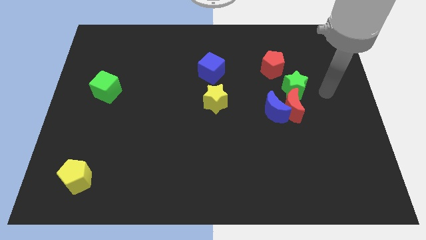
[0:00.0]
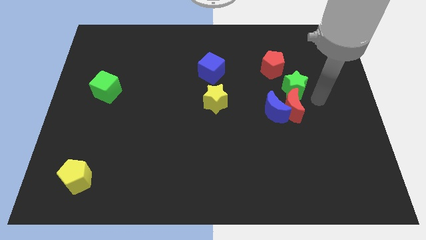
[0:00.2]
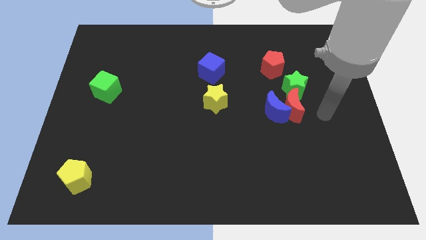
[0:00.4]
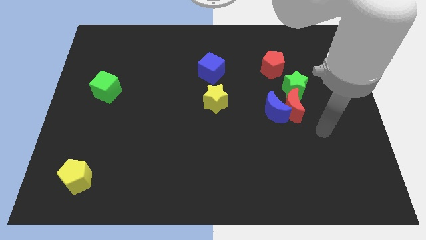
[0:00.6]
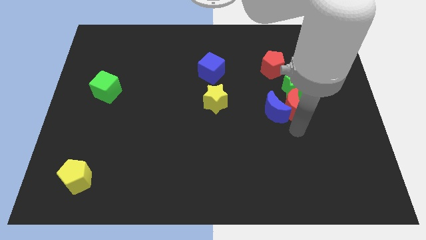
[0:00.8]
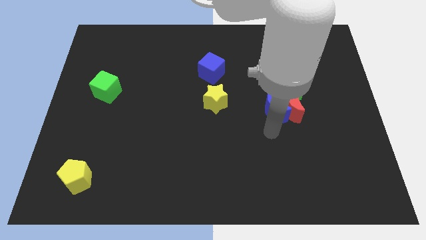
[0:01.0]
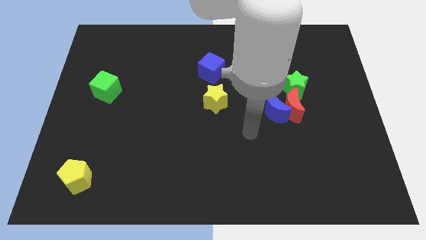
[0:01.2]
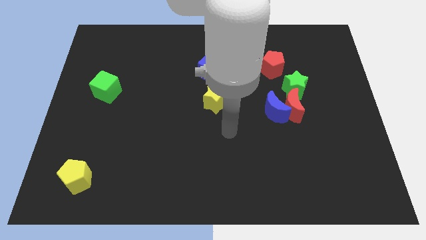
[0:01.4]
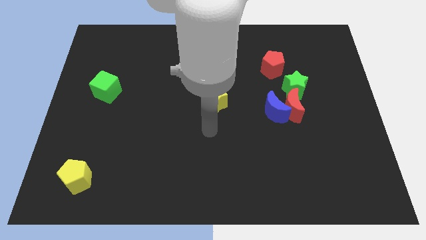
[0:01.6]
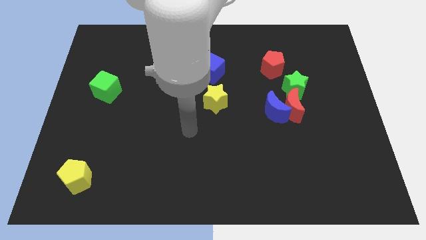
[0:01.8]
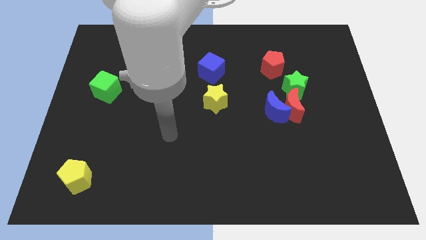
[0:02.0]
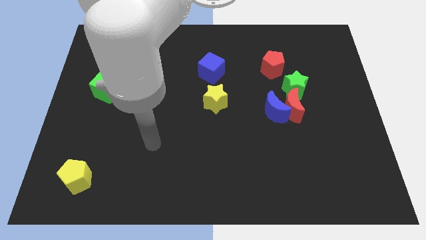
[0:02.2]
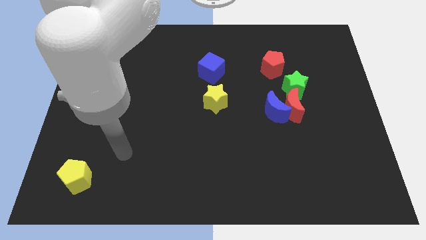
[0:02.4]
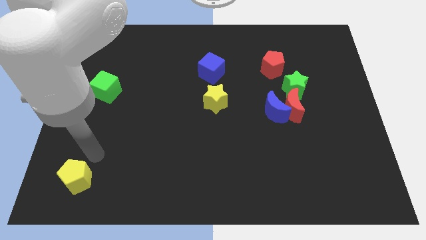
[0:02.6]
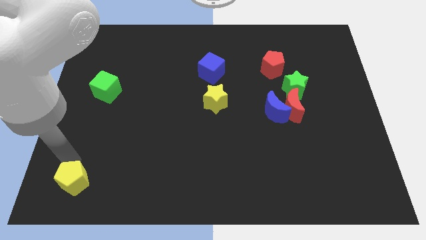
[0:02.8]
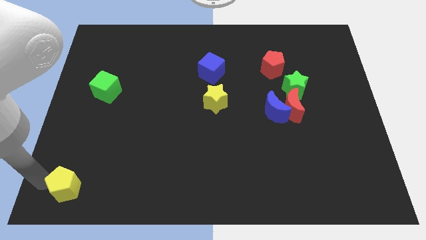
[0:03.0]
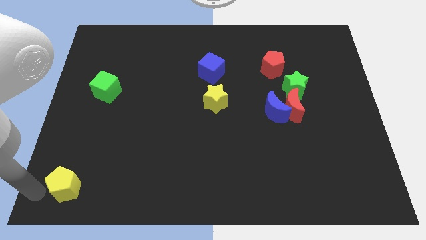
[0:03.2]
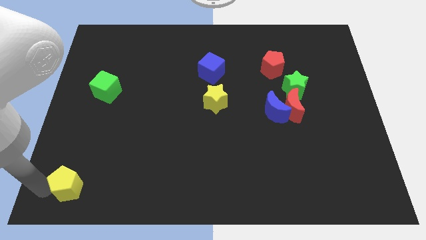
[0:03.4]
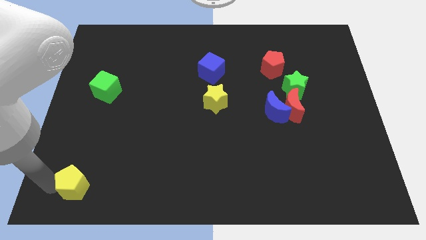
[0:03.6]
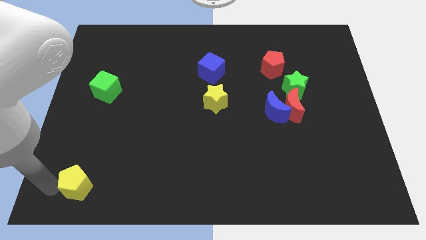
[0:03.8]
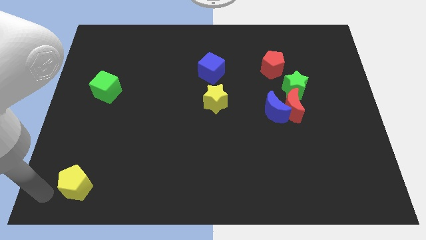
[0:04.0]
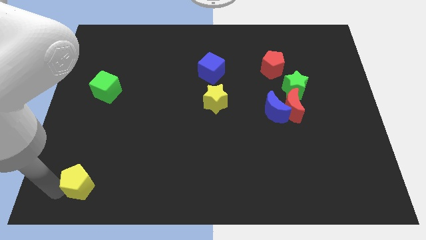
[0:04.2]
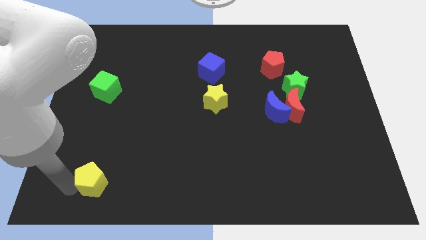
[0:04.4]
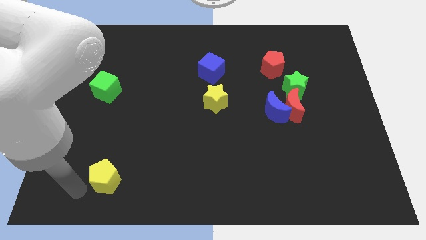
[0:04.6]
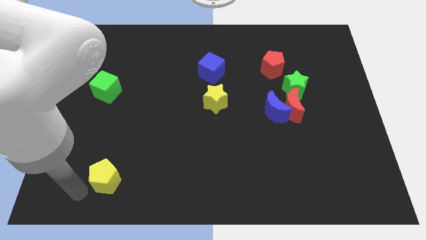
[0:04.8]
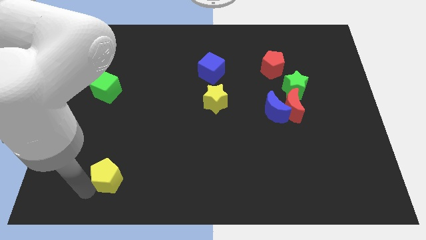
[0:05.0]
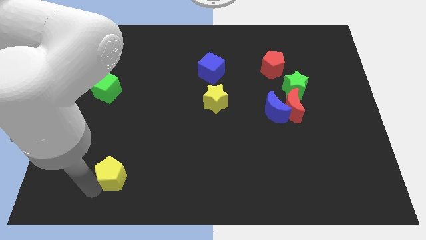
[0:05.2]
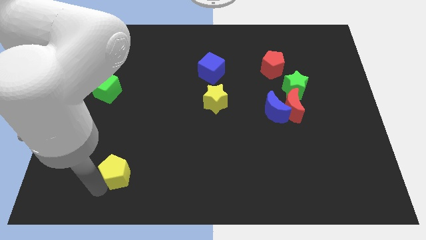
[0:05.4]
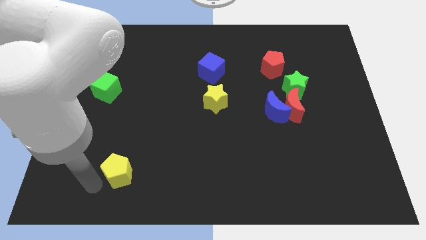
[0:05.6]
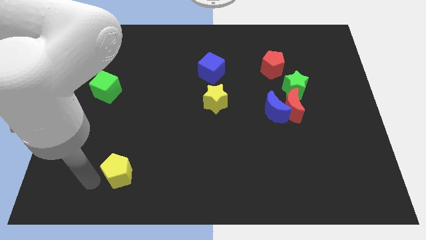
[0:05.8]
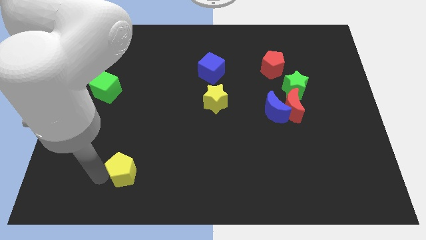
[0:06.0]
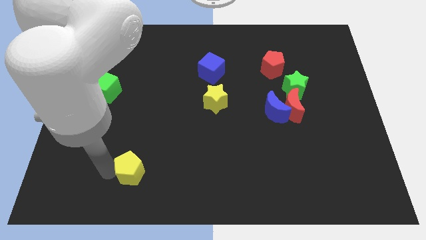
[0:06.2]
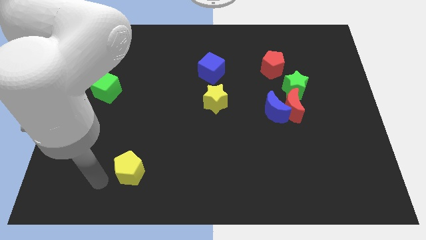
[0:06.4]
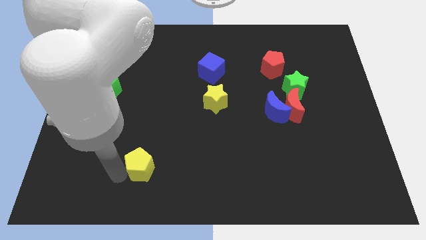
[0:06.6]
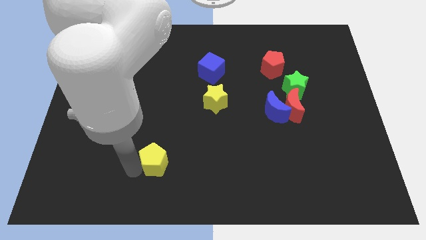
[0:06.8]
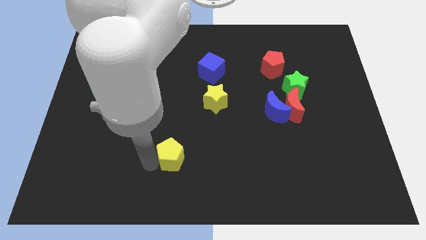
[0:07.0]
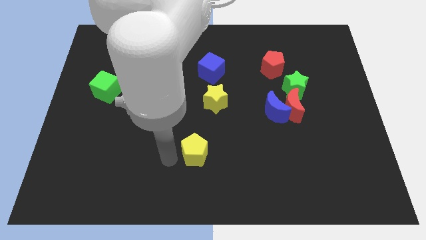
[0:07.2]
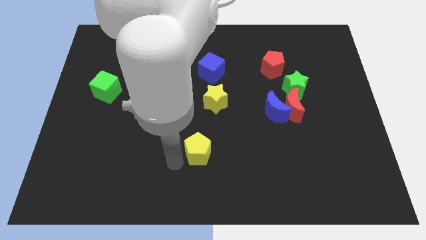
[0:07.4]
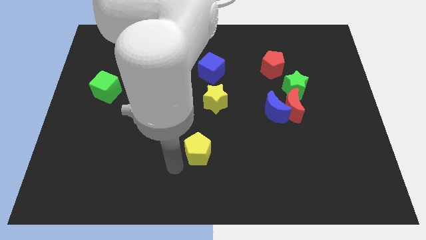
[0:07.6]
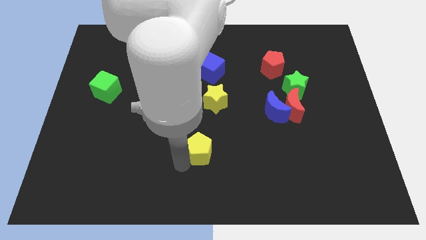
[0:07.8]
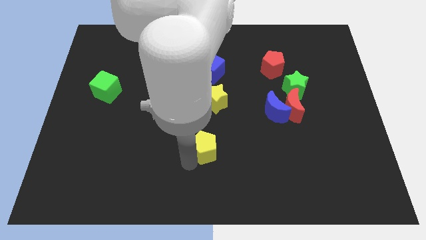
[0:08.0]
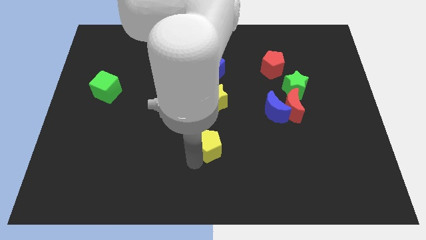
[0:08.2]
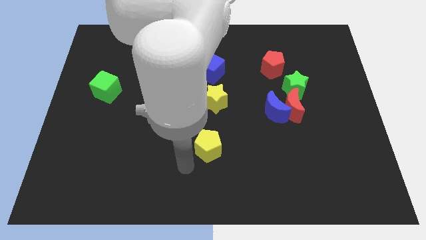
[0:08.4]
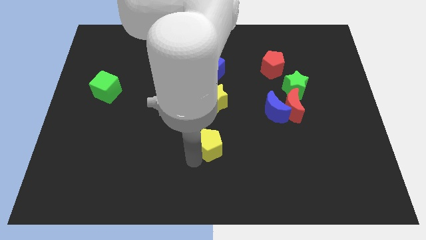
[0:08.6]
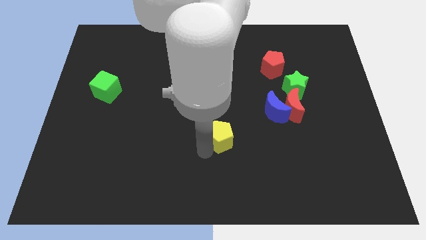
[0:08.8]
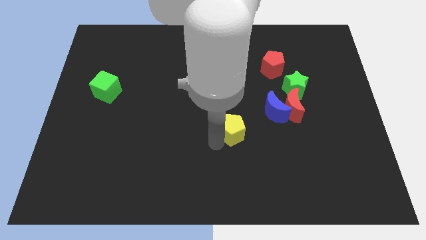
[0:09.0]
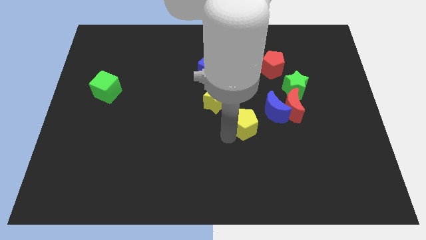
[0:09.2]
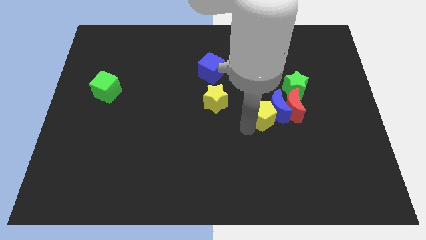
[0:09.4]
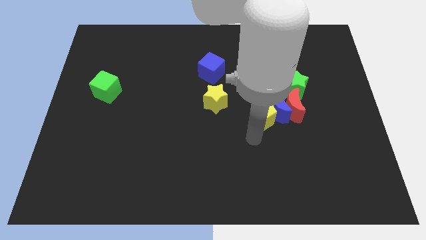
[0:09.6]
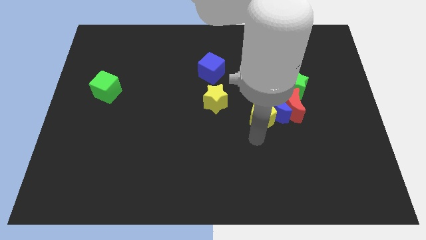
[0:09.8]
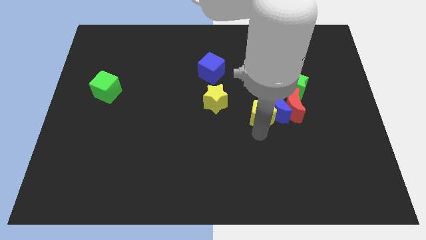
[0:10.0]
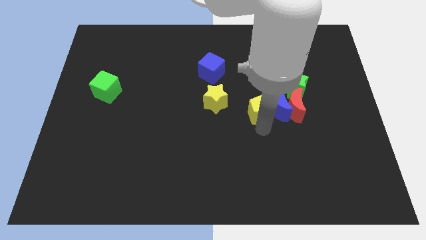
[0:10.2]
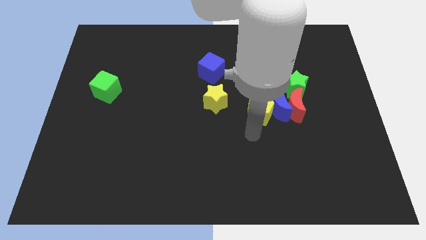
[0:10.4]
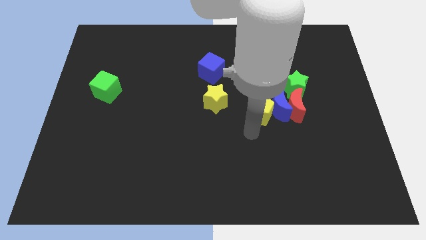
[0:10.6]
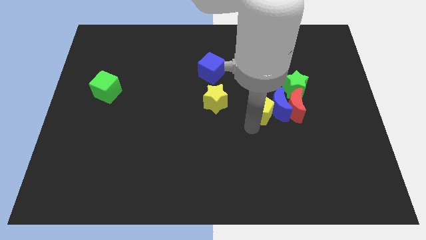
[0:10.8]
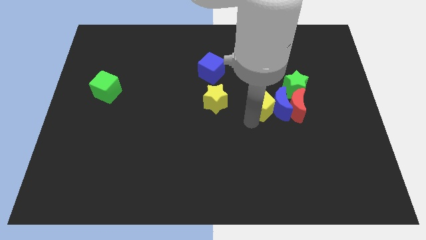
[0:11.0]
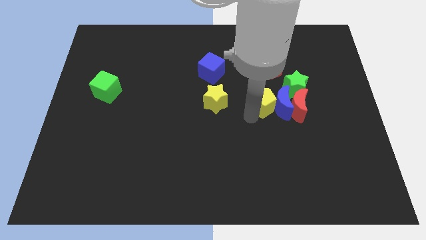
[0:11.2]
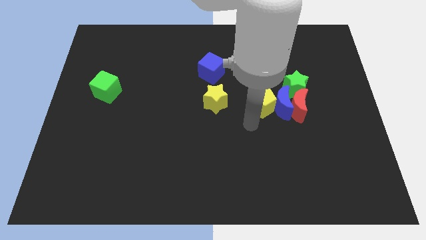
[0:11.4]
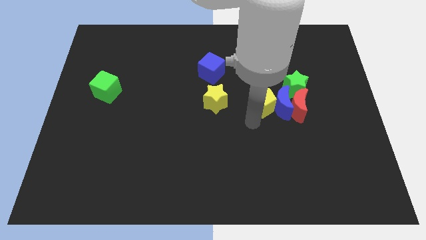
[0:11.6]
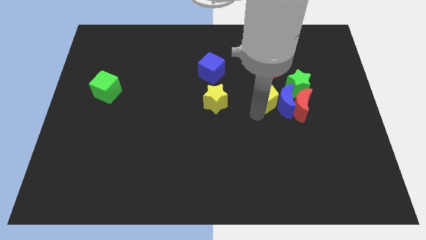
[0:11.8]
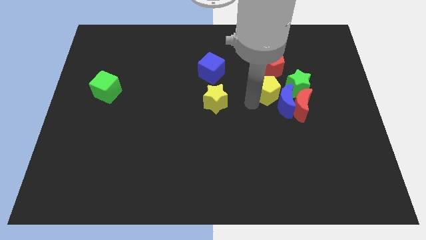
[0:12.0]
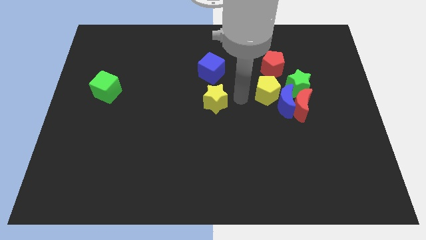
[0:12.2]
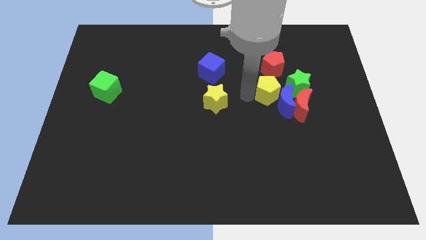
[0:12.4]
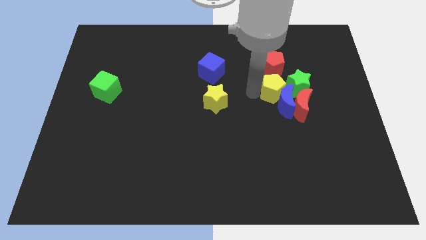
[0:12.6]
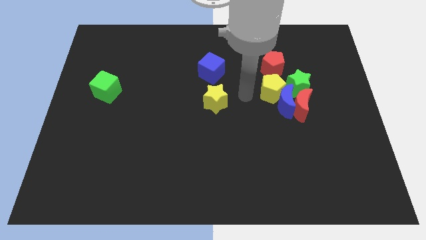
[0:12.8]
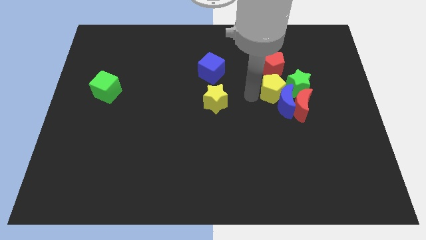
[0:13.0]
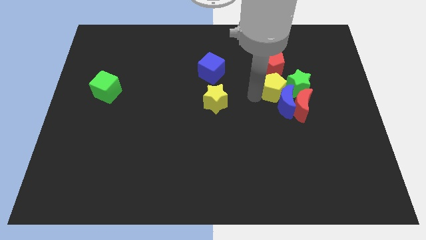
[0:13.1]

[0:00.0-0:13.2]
put the yellow pentagon next to the green star

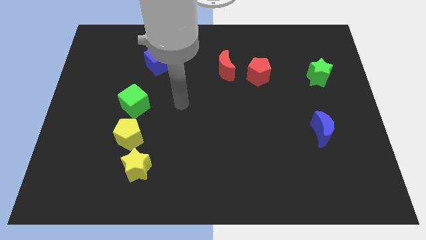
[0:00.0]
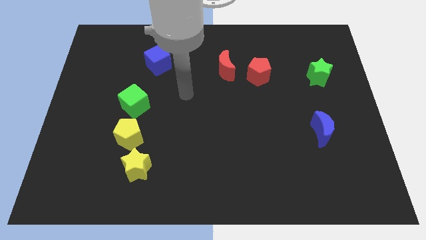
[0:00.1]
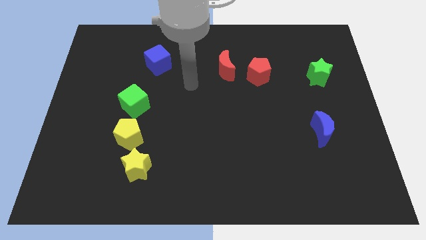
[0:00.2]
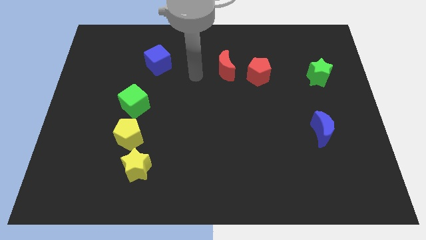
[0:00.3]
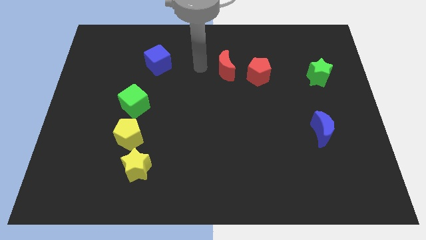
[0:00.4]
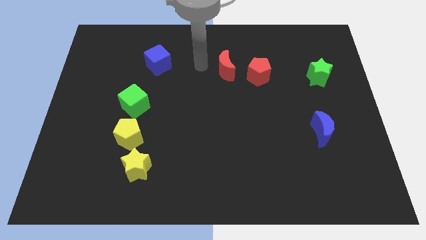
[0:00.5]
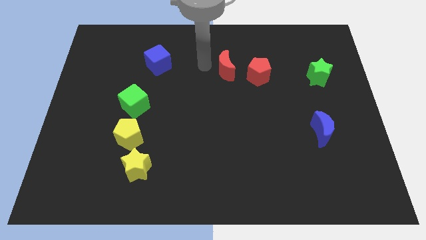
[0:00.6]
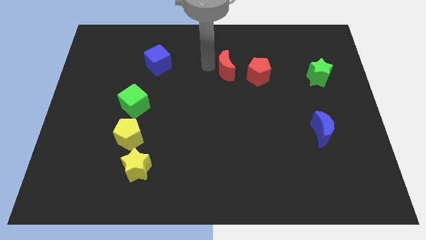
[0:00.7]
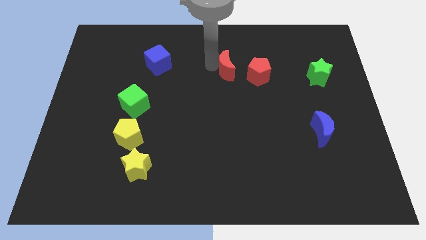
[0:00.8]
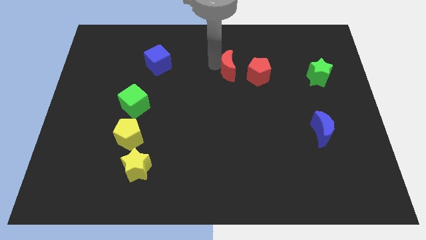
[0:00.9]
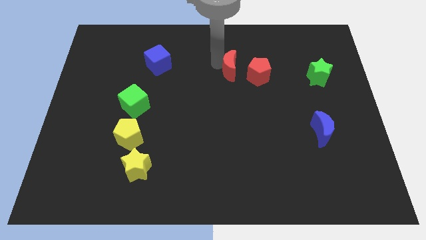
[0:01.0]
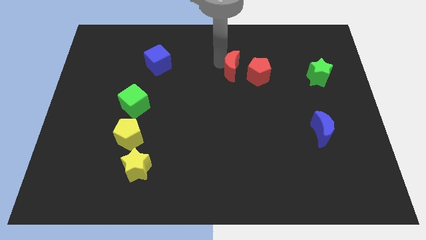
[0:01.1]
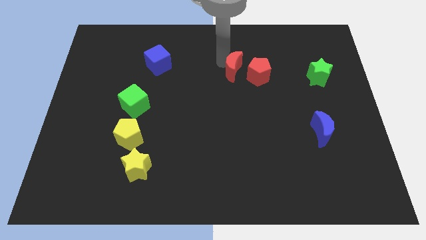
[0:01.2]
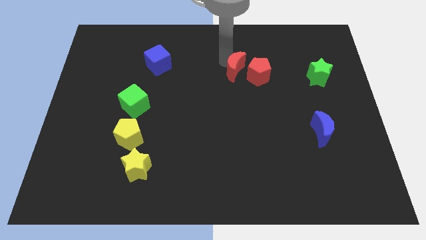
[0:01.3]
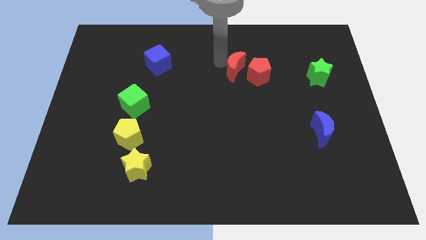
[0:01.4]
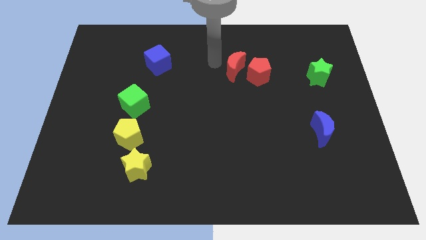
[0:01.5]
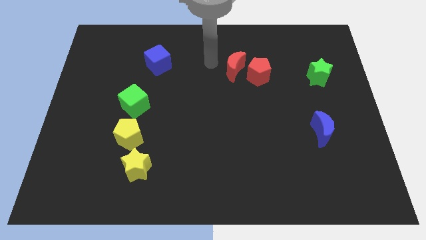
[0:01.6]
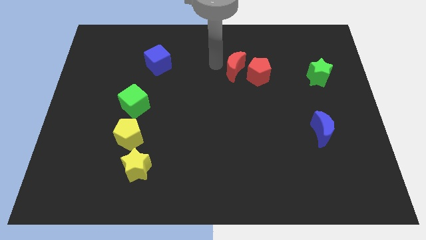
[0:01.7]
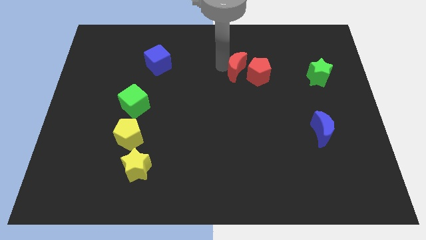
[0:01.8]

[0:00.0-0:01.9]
push the red moon towards the red pentagon
